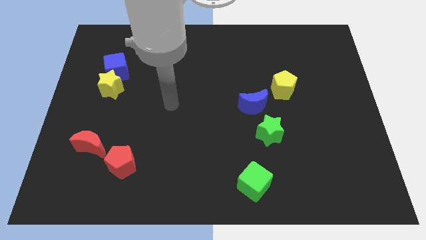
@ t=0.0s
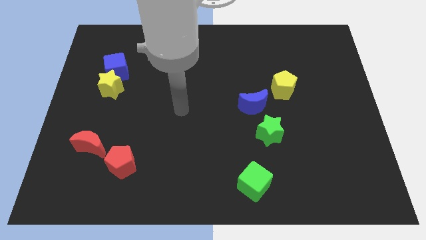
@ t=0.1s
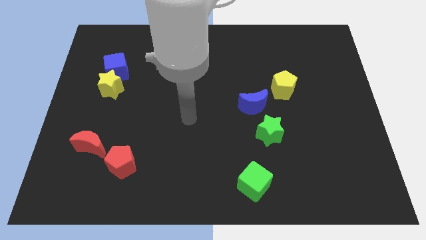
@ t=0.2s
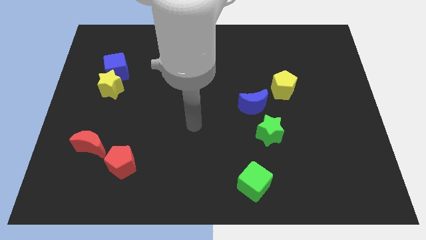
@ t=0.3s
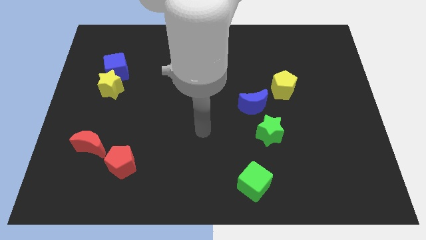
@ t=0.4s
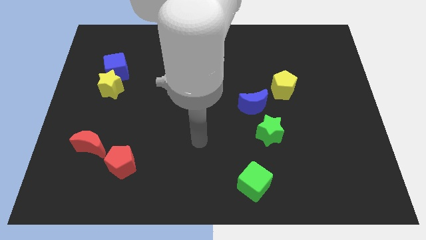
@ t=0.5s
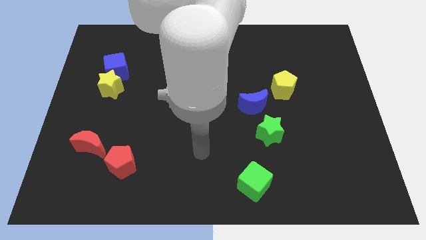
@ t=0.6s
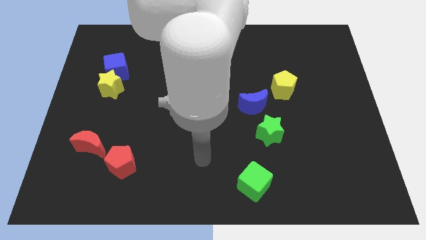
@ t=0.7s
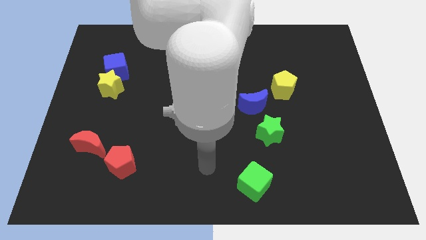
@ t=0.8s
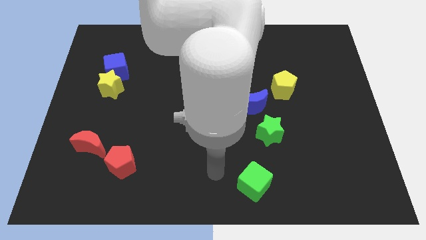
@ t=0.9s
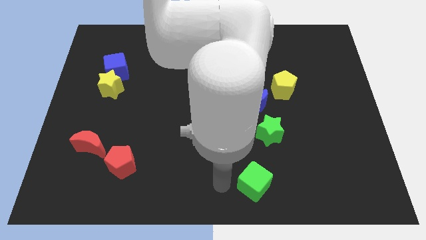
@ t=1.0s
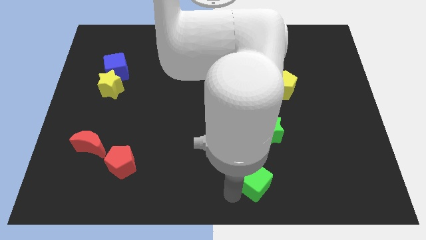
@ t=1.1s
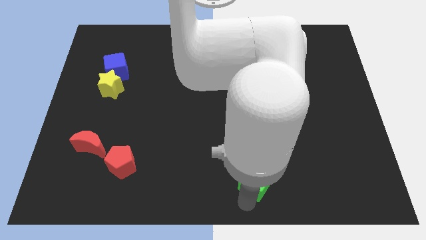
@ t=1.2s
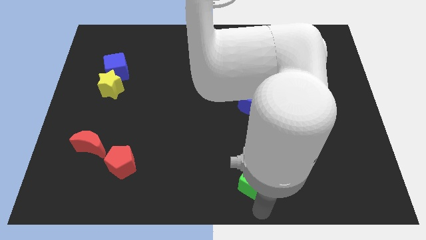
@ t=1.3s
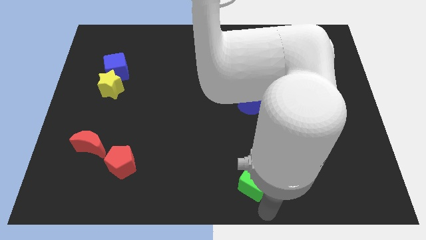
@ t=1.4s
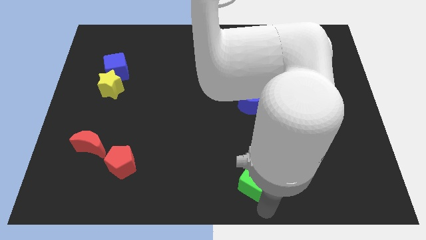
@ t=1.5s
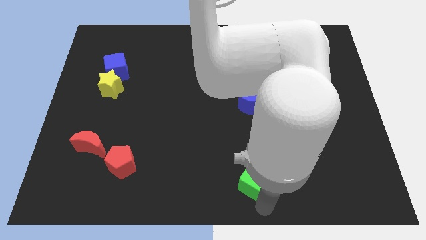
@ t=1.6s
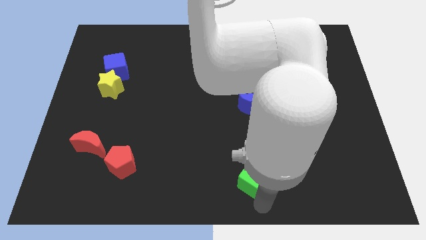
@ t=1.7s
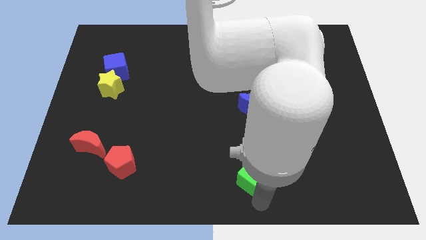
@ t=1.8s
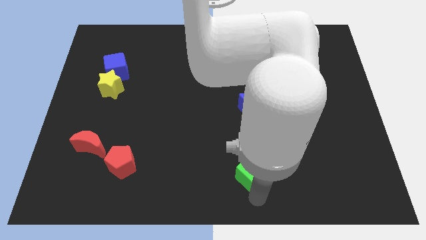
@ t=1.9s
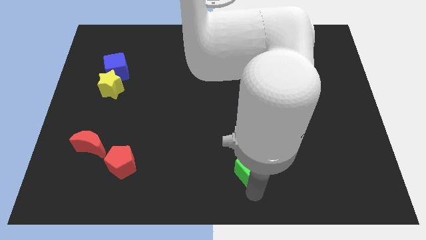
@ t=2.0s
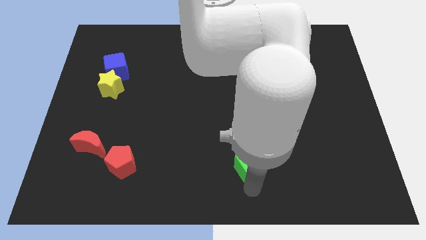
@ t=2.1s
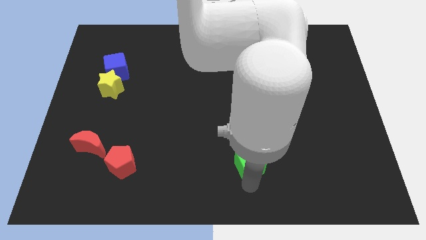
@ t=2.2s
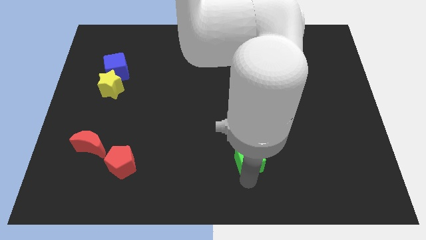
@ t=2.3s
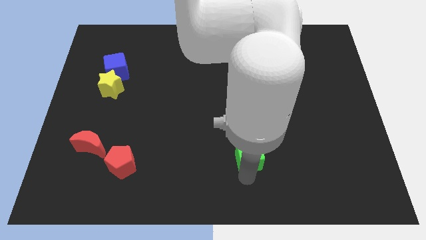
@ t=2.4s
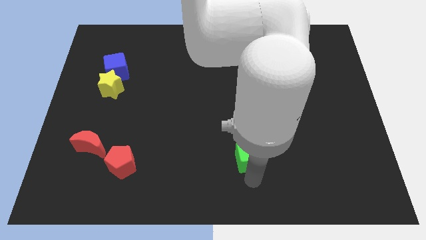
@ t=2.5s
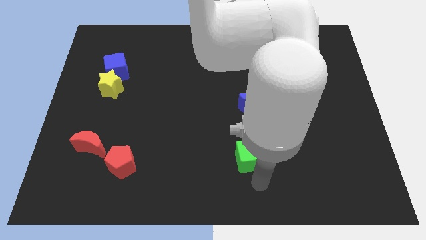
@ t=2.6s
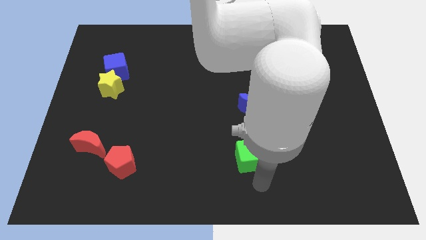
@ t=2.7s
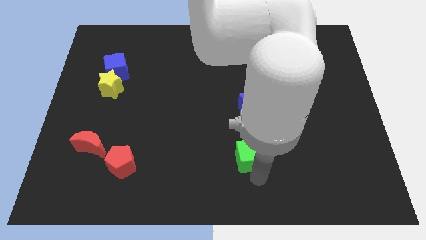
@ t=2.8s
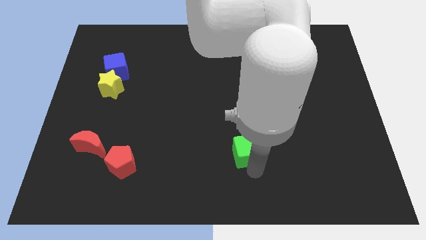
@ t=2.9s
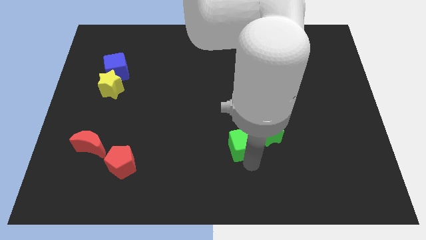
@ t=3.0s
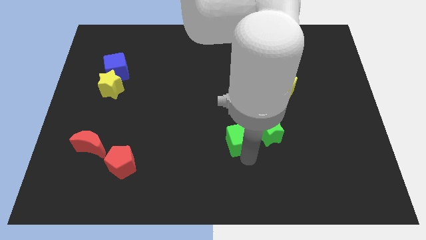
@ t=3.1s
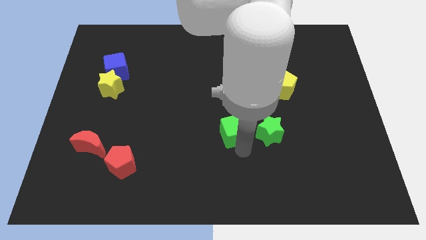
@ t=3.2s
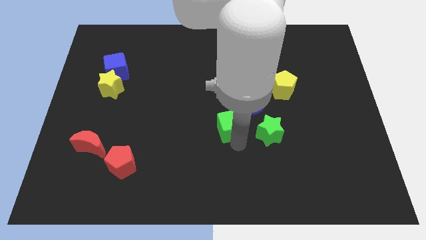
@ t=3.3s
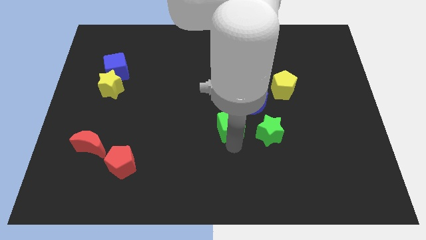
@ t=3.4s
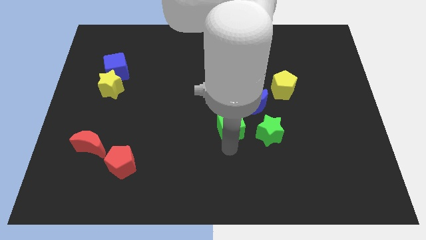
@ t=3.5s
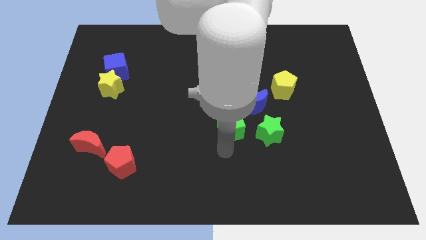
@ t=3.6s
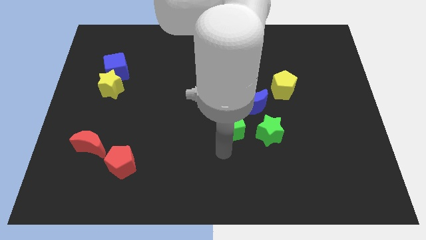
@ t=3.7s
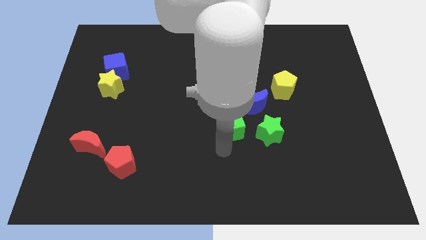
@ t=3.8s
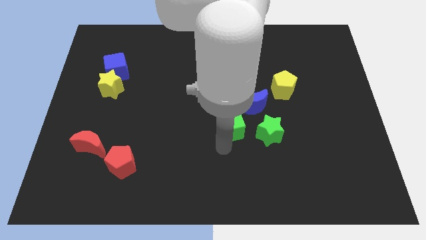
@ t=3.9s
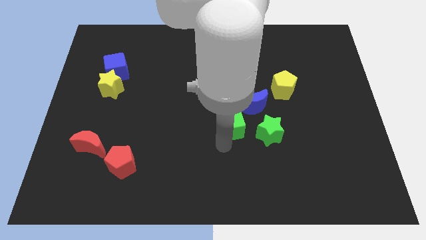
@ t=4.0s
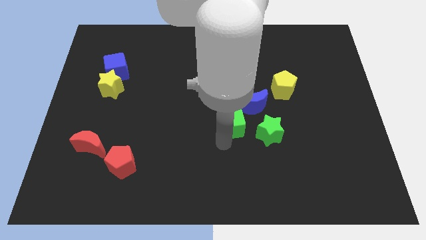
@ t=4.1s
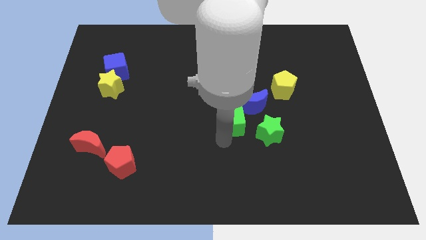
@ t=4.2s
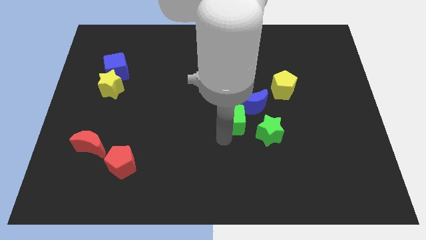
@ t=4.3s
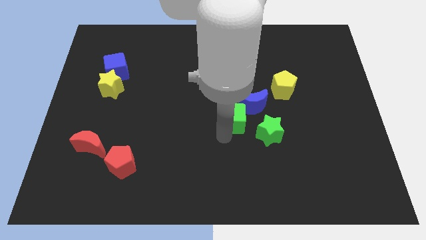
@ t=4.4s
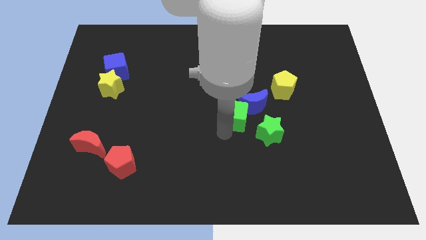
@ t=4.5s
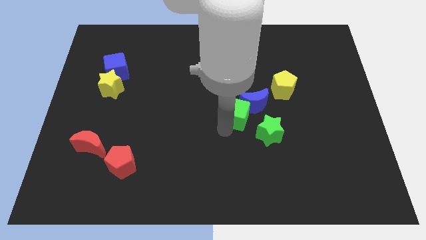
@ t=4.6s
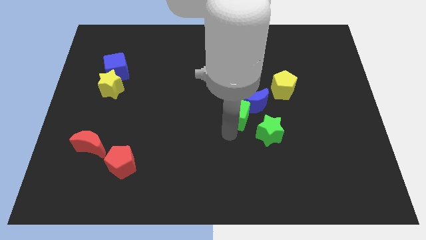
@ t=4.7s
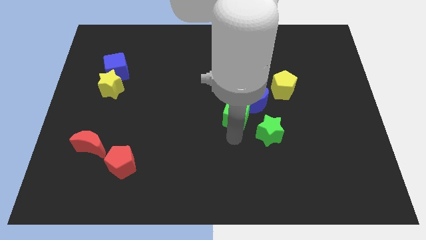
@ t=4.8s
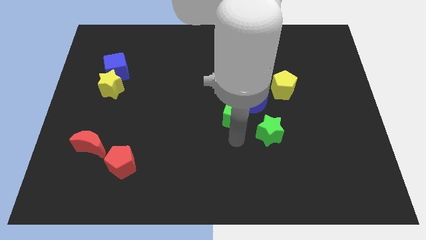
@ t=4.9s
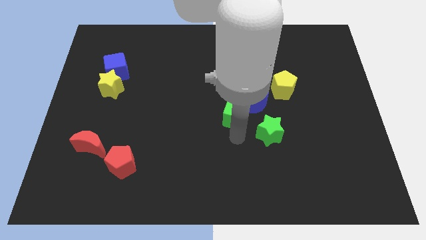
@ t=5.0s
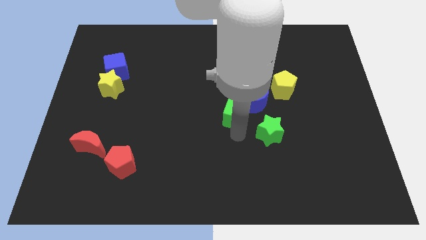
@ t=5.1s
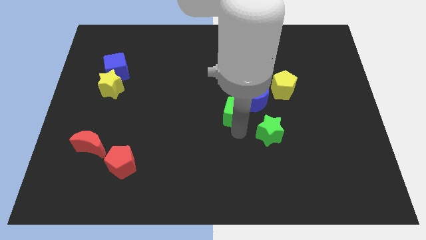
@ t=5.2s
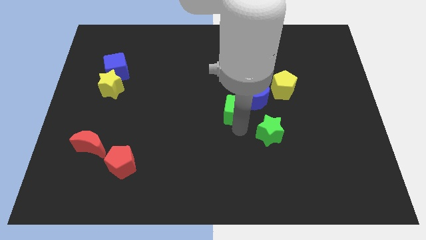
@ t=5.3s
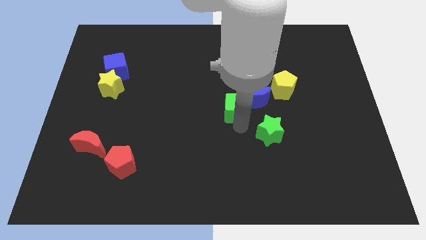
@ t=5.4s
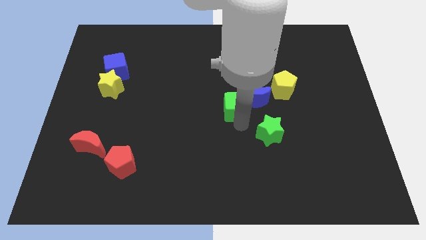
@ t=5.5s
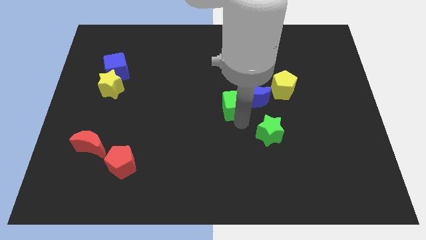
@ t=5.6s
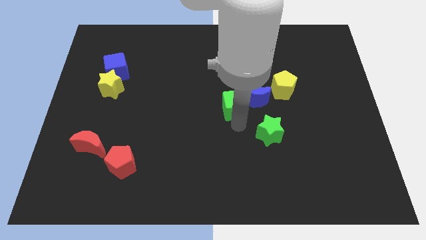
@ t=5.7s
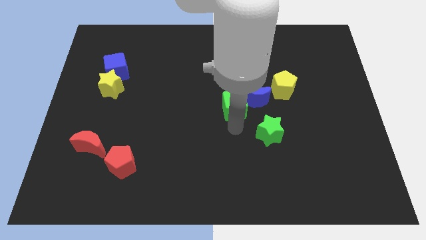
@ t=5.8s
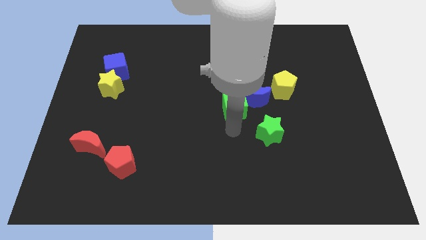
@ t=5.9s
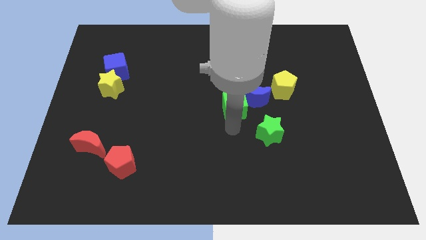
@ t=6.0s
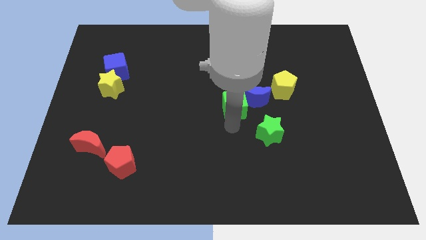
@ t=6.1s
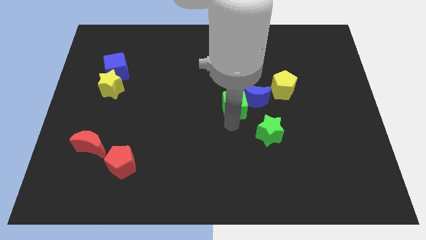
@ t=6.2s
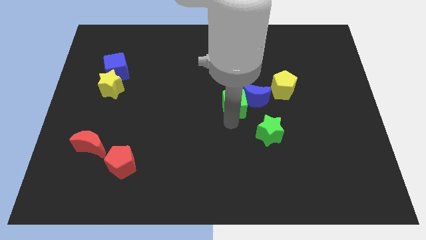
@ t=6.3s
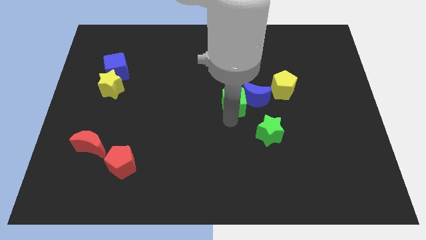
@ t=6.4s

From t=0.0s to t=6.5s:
slide the green cube upwards

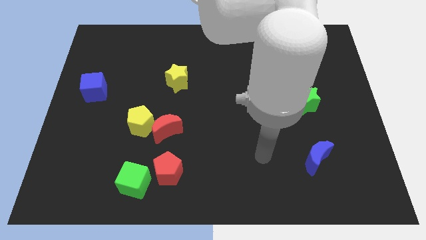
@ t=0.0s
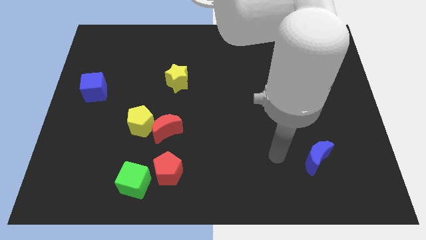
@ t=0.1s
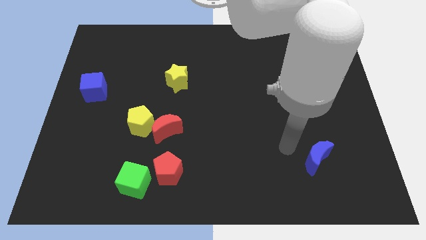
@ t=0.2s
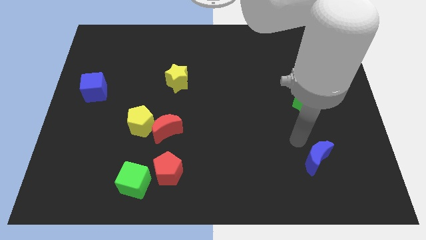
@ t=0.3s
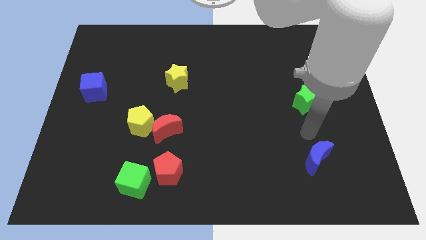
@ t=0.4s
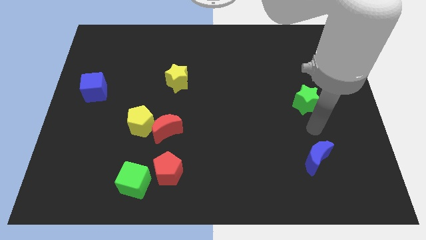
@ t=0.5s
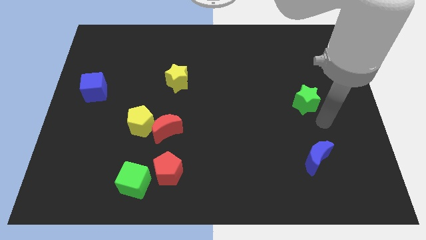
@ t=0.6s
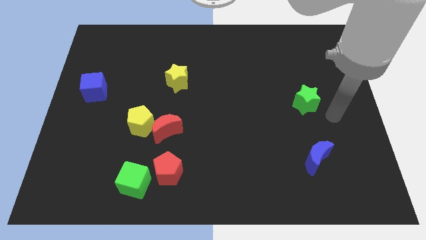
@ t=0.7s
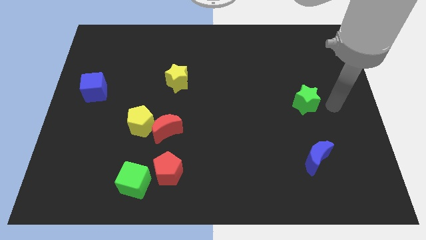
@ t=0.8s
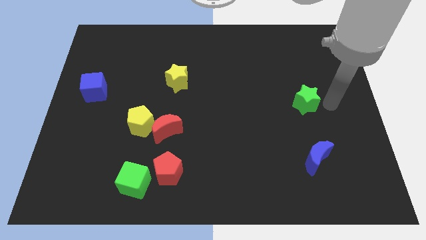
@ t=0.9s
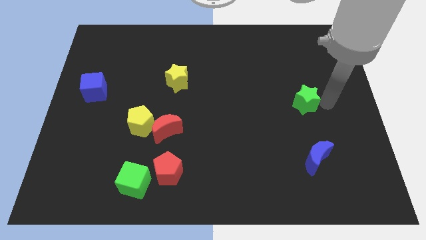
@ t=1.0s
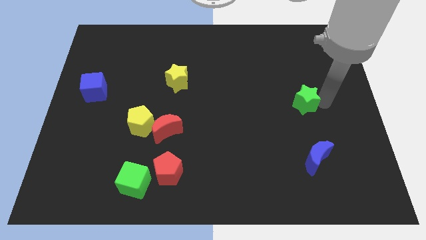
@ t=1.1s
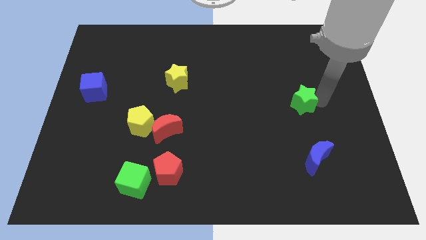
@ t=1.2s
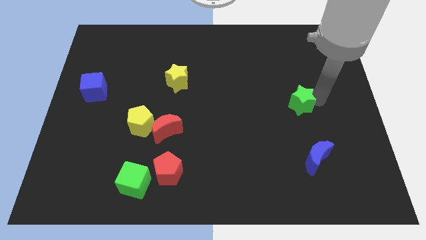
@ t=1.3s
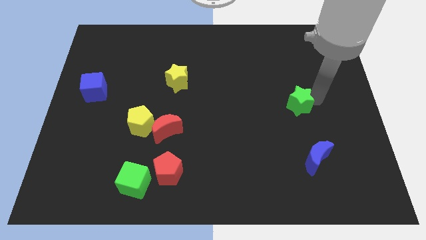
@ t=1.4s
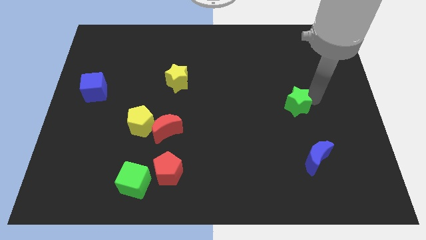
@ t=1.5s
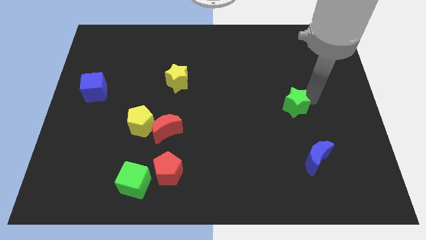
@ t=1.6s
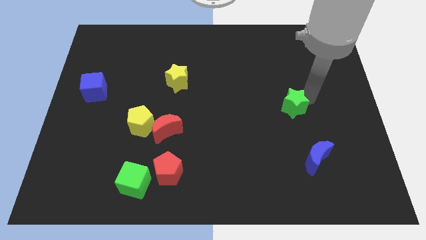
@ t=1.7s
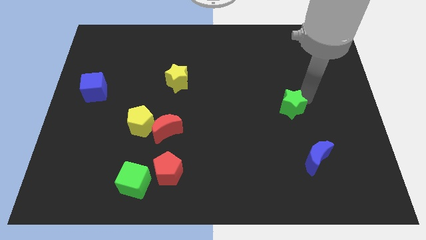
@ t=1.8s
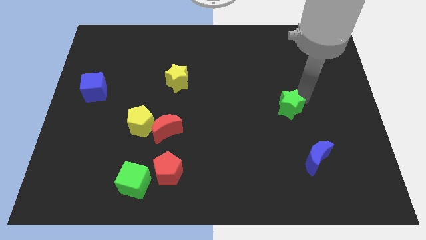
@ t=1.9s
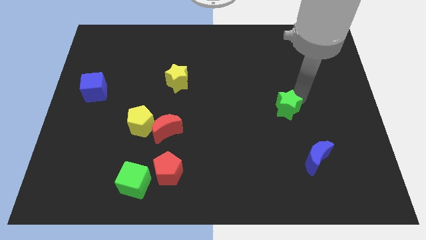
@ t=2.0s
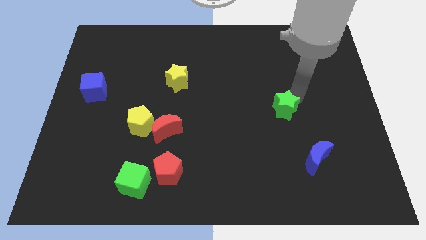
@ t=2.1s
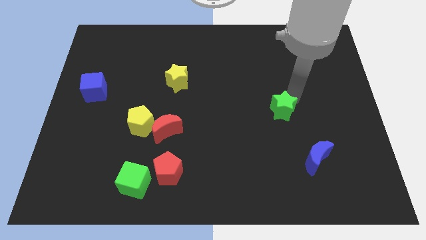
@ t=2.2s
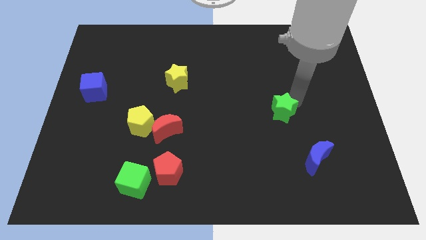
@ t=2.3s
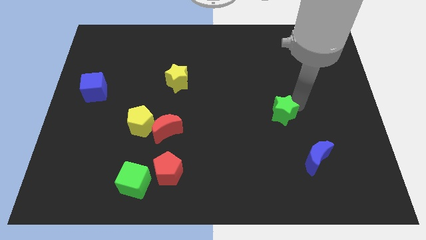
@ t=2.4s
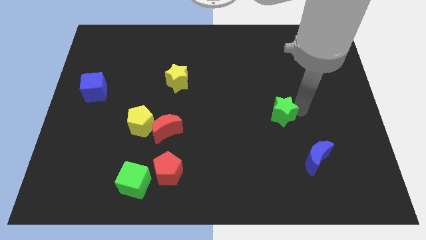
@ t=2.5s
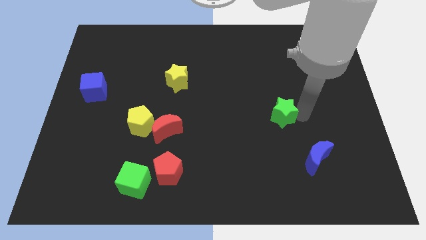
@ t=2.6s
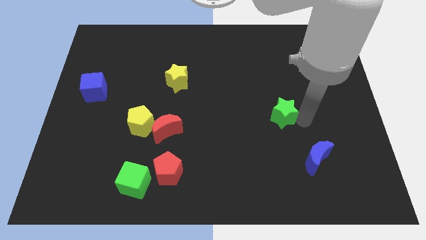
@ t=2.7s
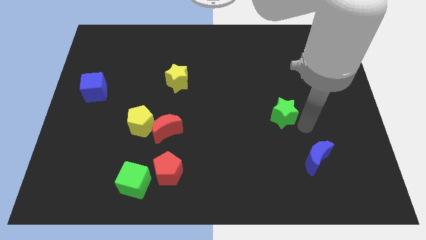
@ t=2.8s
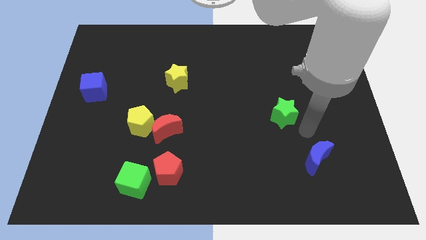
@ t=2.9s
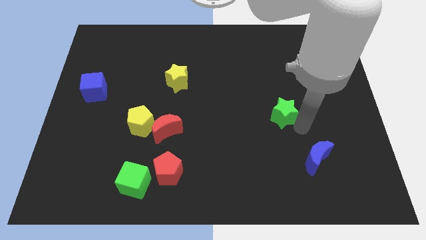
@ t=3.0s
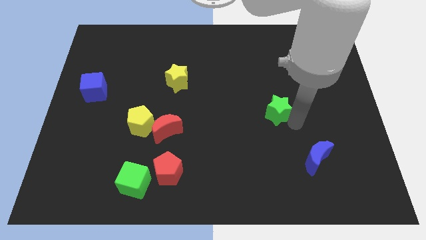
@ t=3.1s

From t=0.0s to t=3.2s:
slide the green star to the left a little
